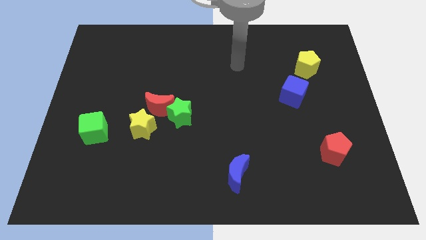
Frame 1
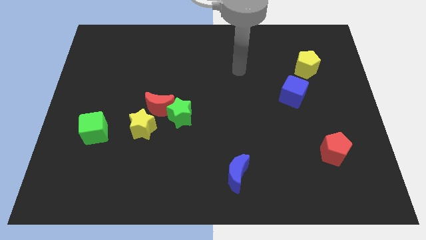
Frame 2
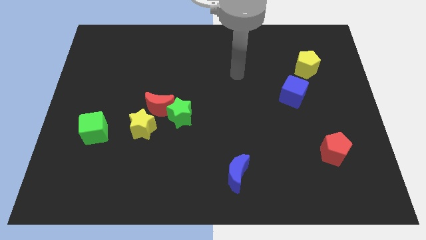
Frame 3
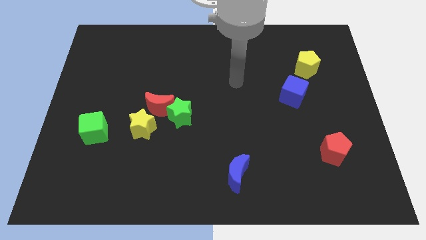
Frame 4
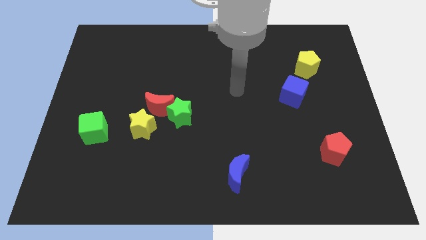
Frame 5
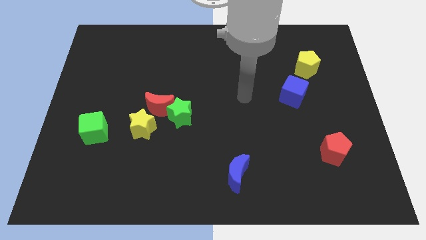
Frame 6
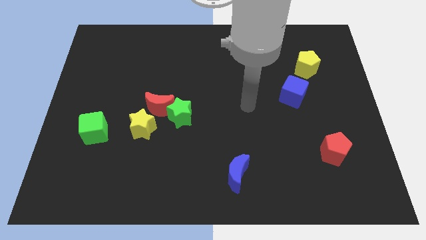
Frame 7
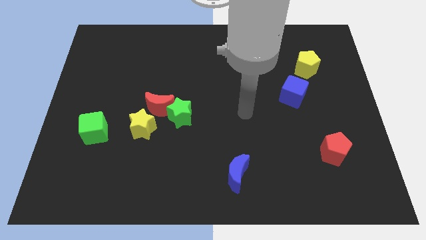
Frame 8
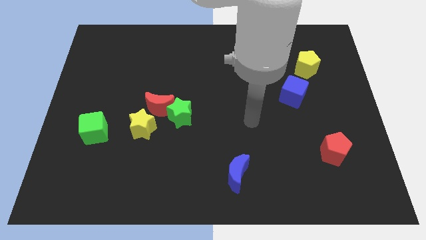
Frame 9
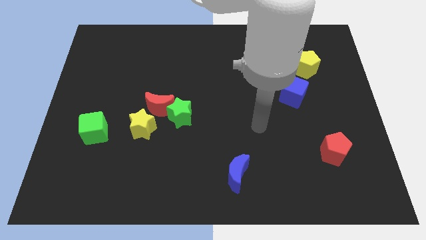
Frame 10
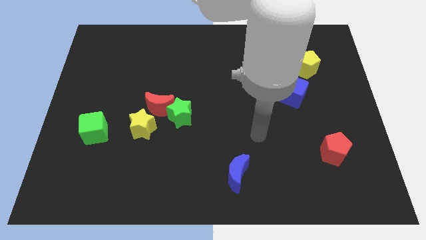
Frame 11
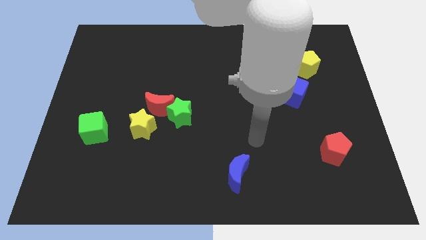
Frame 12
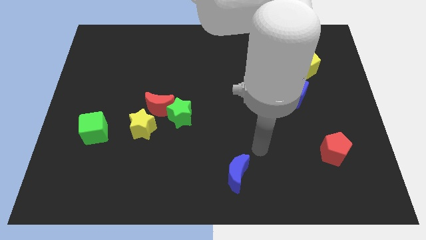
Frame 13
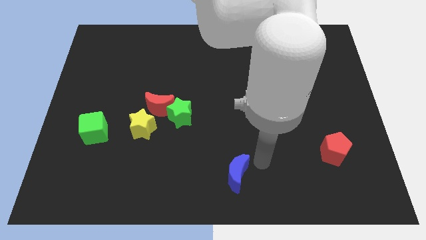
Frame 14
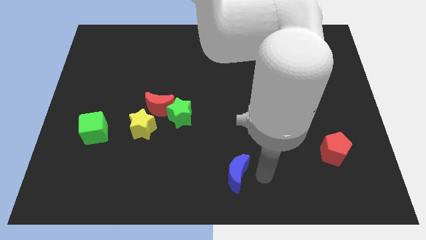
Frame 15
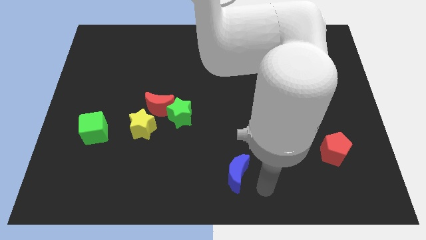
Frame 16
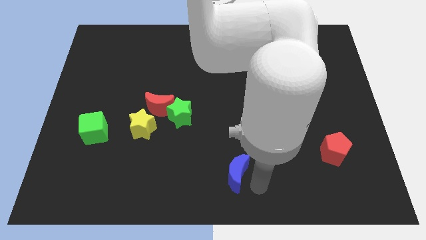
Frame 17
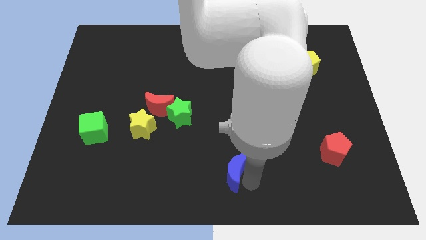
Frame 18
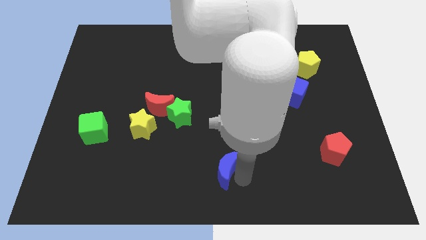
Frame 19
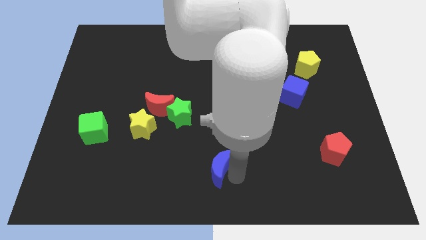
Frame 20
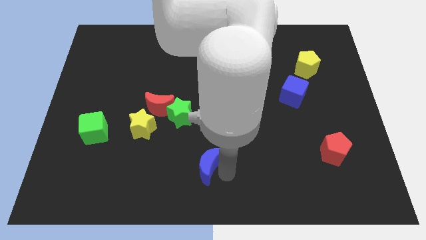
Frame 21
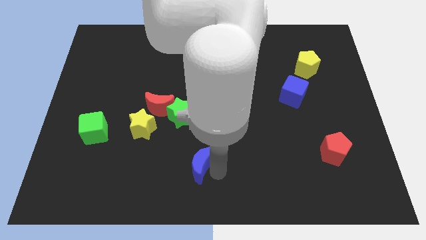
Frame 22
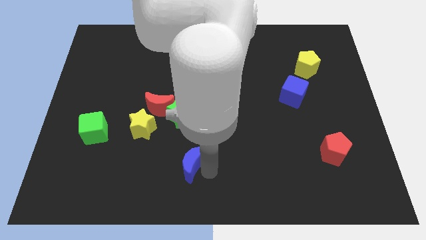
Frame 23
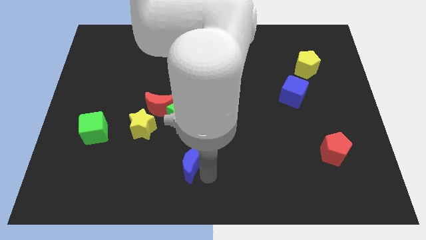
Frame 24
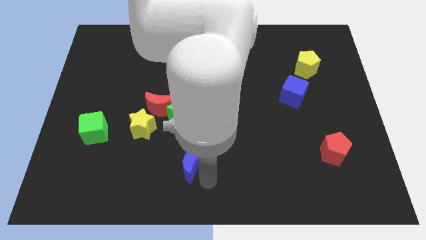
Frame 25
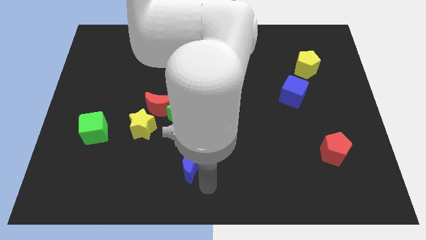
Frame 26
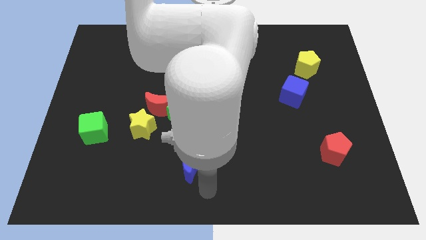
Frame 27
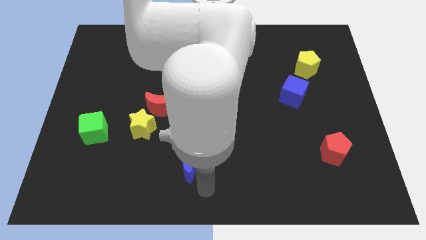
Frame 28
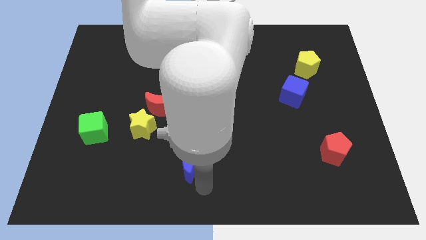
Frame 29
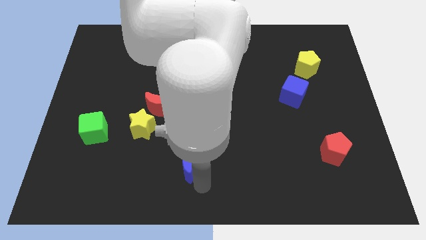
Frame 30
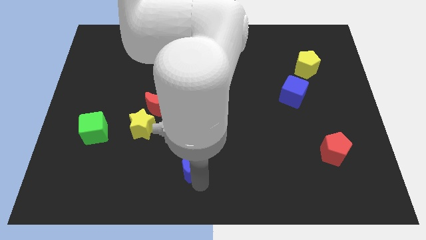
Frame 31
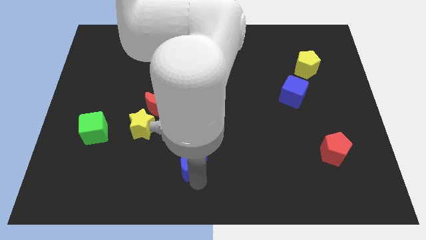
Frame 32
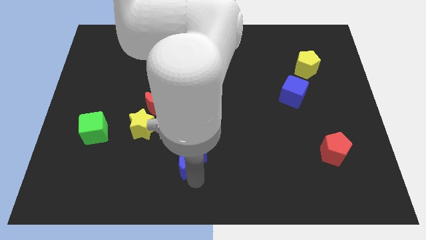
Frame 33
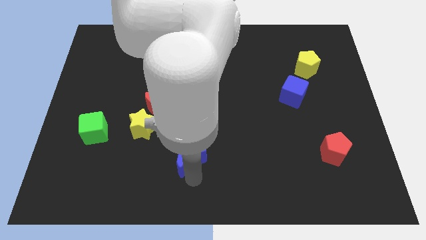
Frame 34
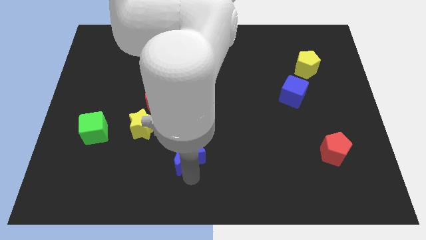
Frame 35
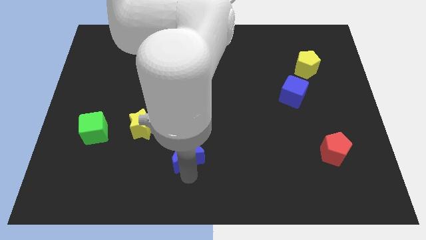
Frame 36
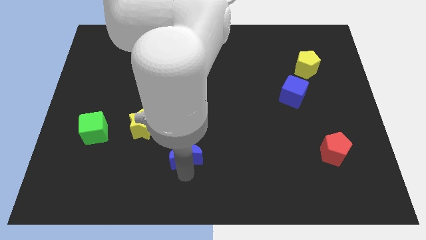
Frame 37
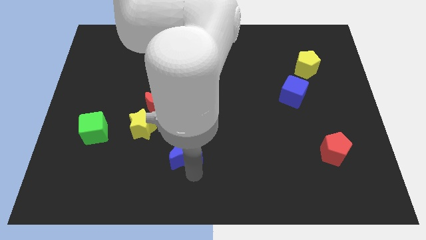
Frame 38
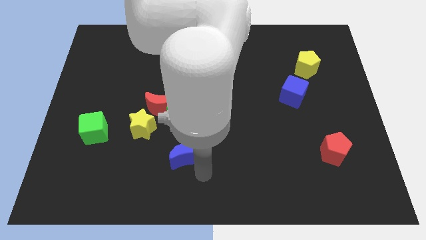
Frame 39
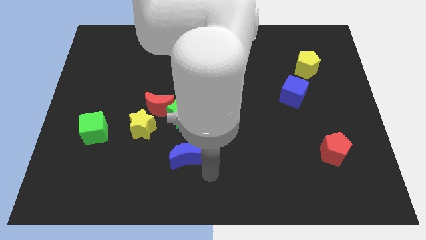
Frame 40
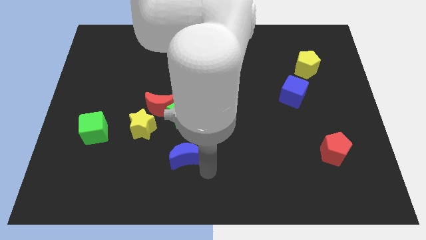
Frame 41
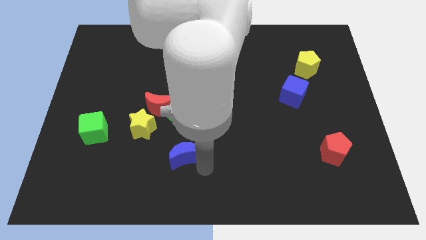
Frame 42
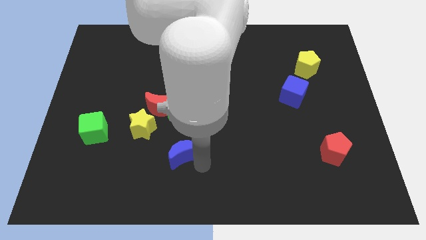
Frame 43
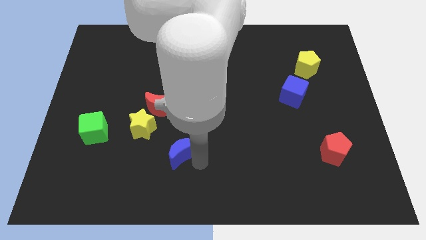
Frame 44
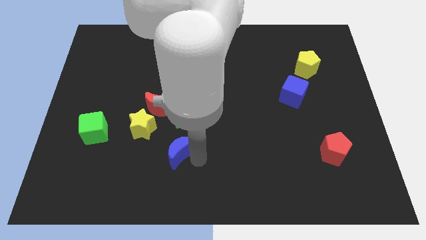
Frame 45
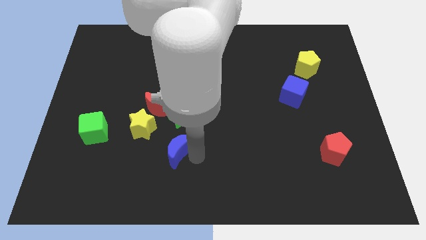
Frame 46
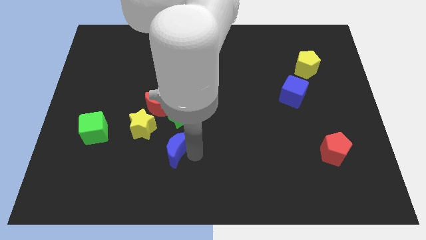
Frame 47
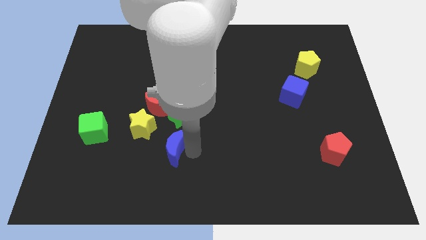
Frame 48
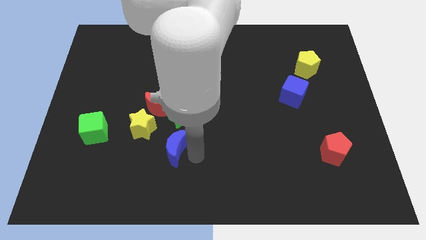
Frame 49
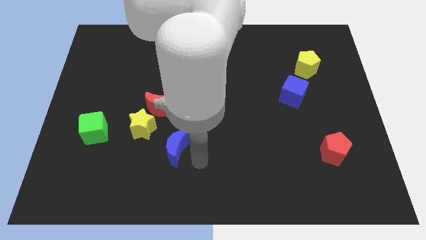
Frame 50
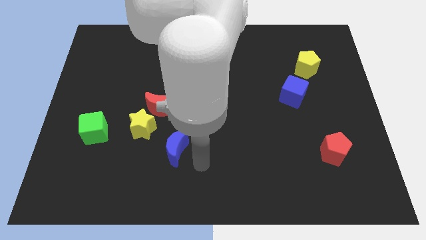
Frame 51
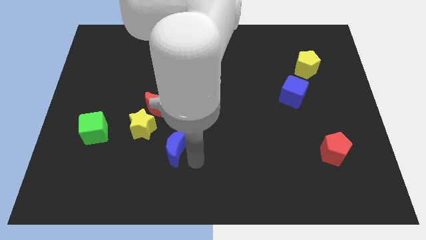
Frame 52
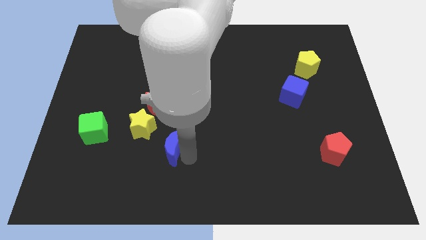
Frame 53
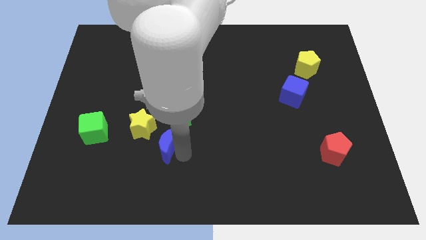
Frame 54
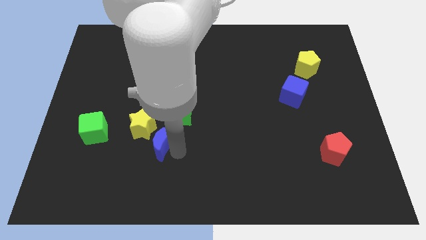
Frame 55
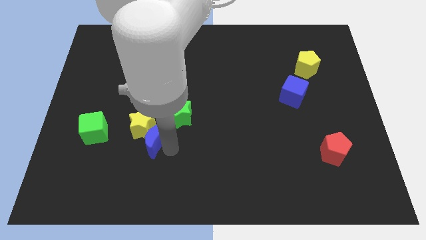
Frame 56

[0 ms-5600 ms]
push the blue moon towards the yellow star
